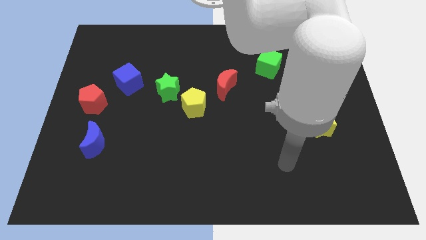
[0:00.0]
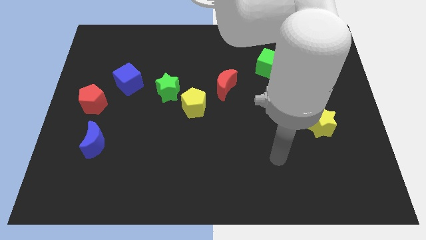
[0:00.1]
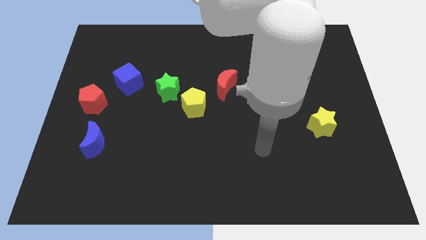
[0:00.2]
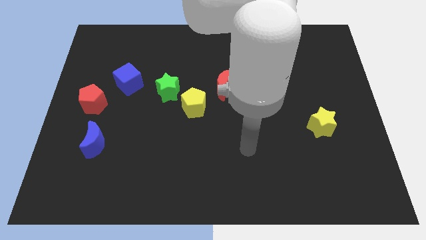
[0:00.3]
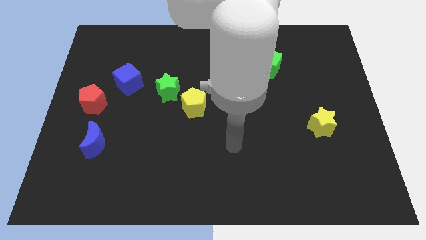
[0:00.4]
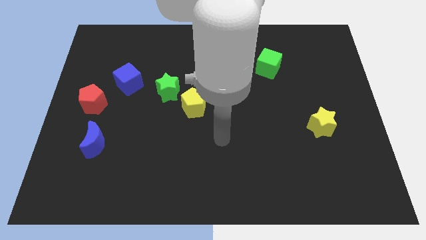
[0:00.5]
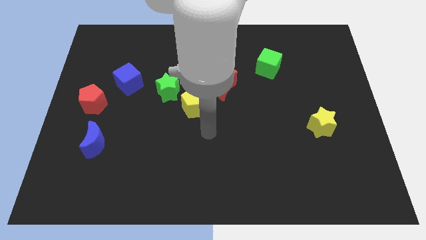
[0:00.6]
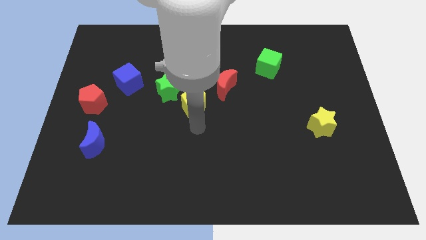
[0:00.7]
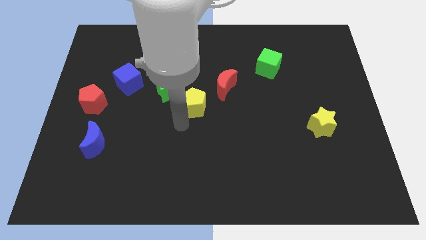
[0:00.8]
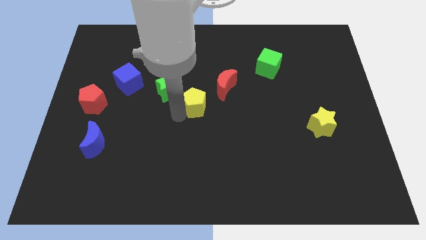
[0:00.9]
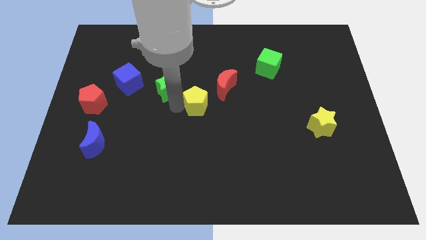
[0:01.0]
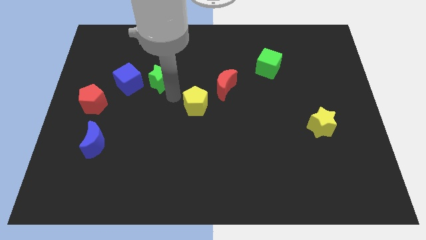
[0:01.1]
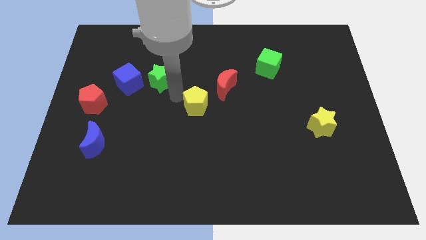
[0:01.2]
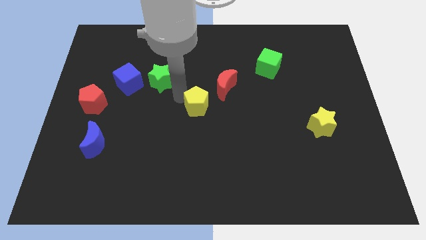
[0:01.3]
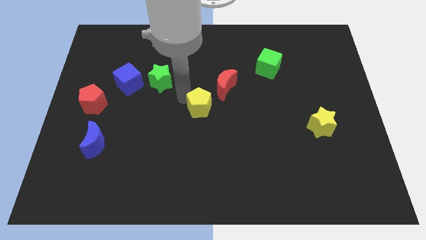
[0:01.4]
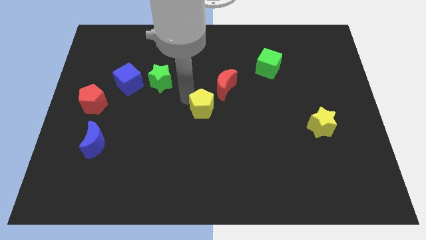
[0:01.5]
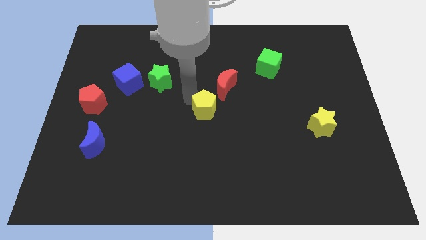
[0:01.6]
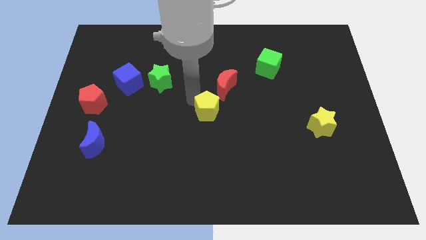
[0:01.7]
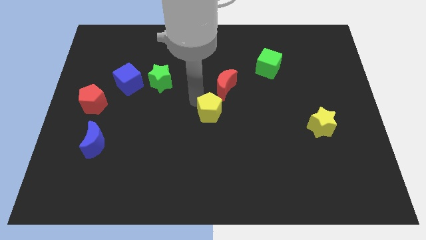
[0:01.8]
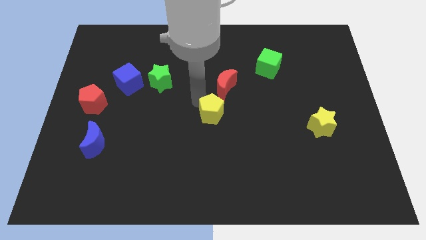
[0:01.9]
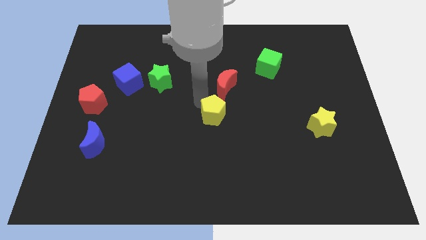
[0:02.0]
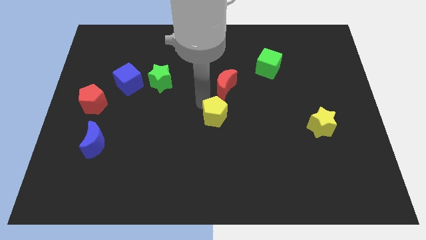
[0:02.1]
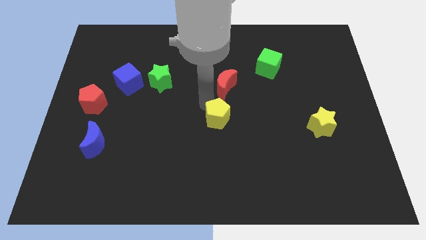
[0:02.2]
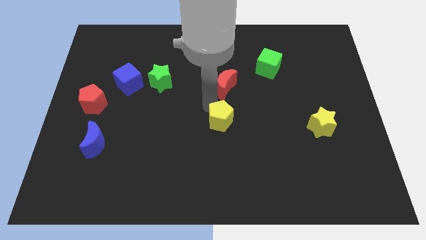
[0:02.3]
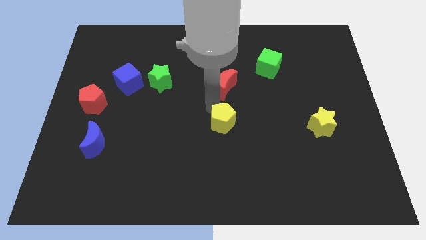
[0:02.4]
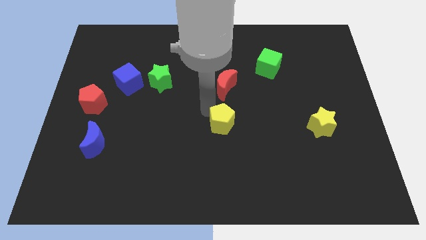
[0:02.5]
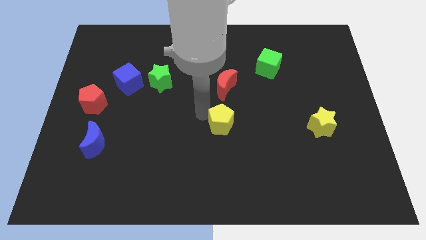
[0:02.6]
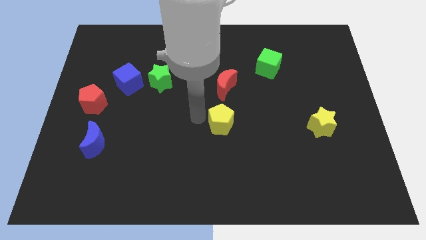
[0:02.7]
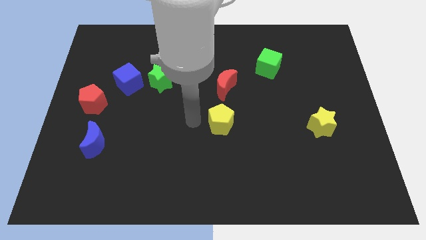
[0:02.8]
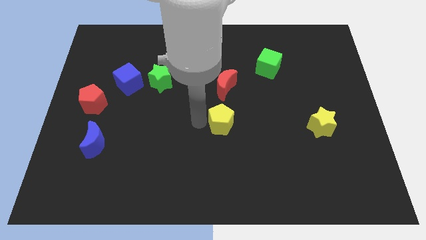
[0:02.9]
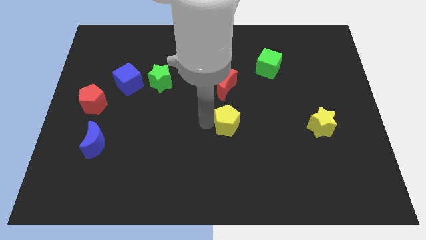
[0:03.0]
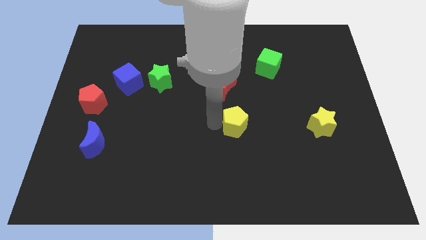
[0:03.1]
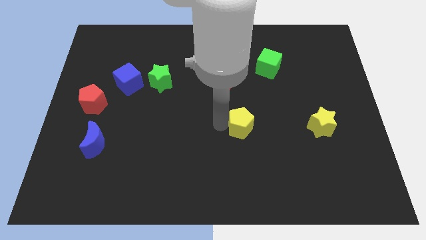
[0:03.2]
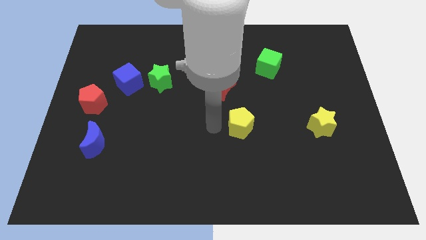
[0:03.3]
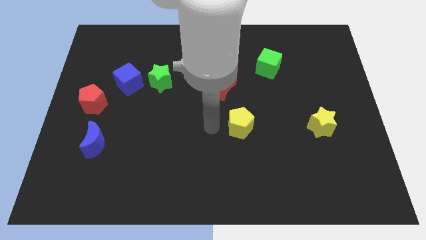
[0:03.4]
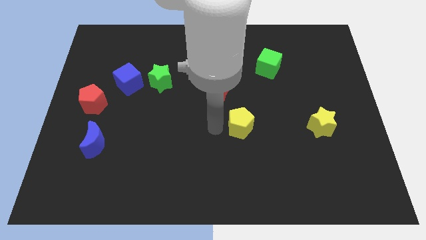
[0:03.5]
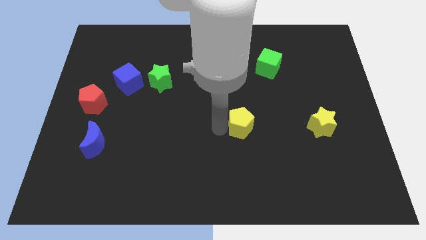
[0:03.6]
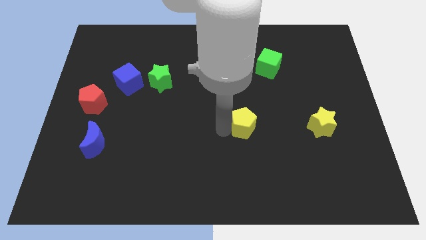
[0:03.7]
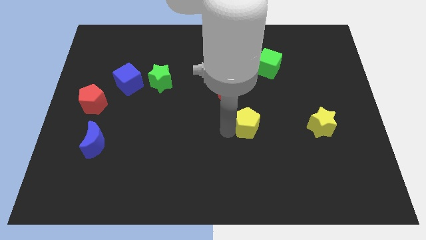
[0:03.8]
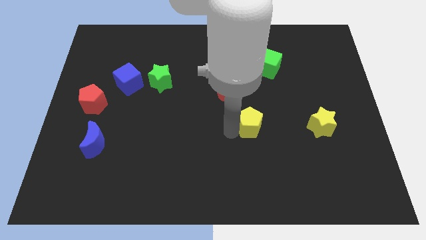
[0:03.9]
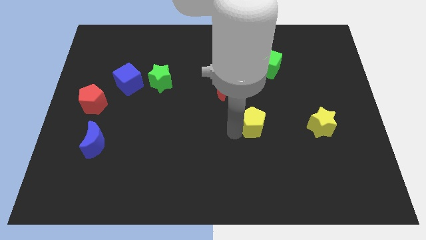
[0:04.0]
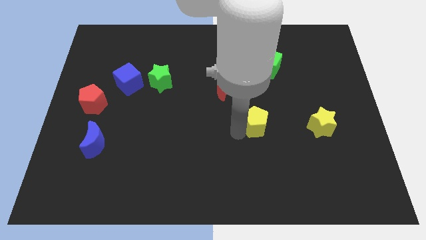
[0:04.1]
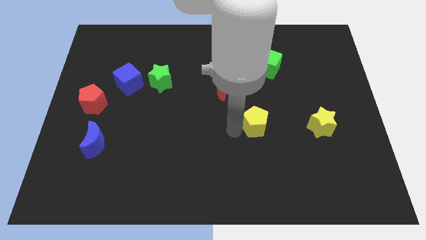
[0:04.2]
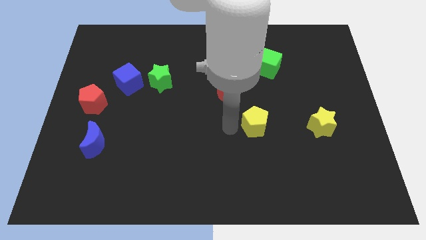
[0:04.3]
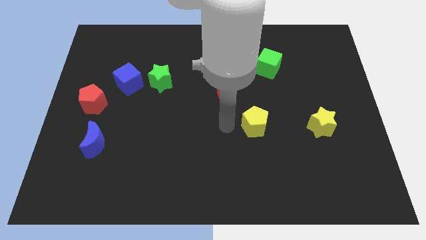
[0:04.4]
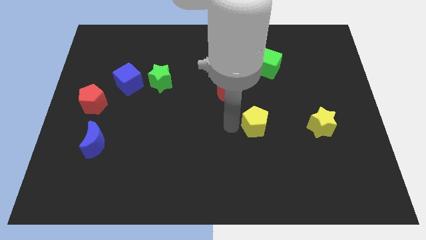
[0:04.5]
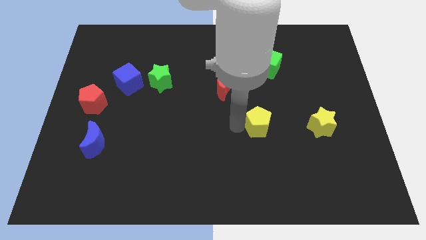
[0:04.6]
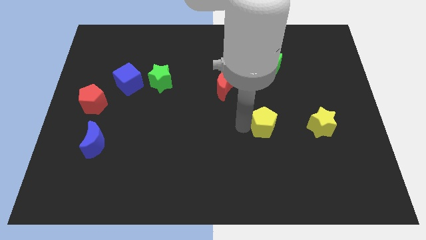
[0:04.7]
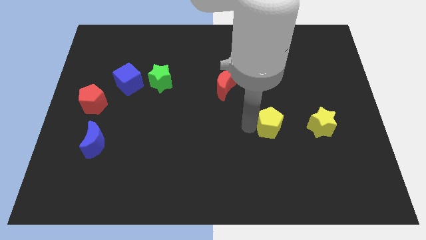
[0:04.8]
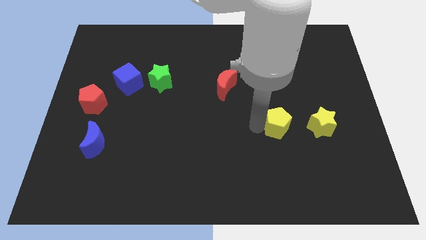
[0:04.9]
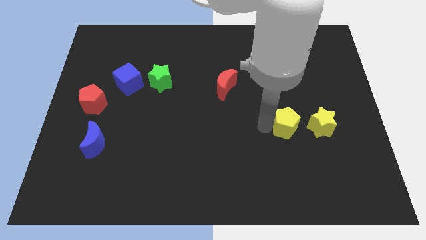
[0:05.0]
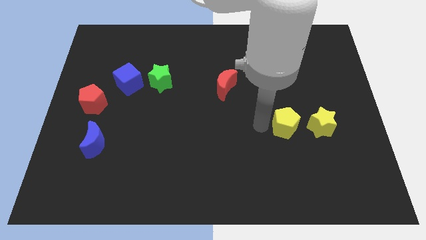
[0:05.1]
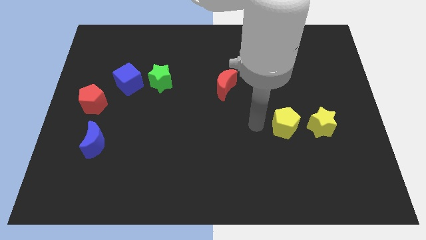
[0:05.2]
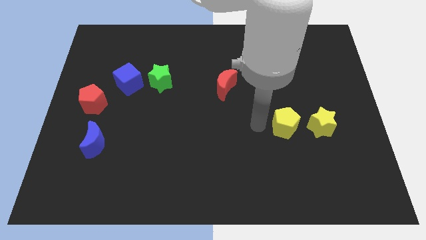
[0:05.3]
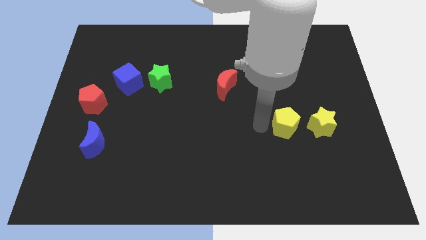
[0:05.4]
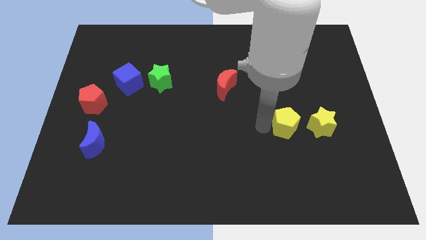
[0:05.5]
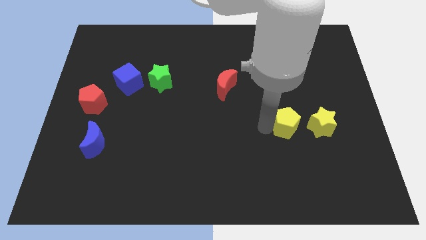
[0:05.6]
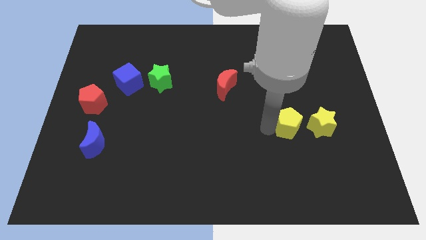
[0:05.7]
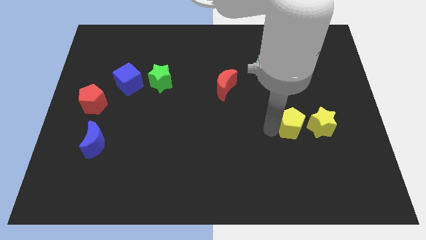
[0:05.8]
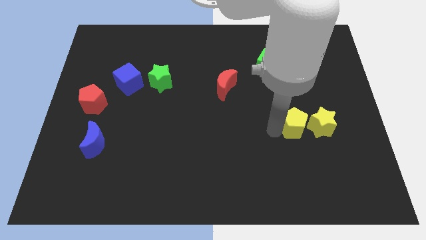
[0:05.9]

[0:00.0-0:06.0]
put the yellow pentagon next to the yellow star

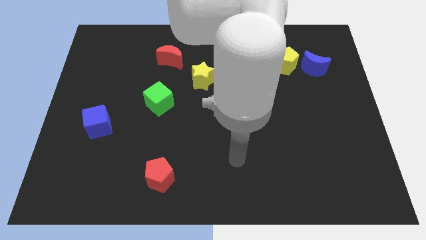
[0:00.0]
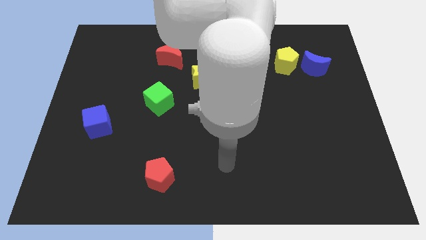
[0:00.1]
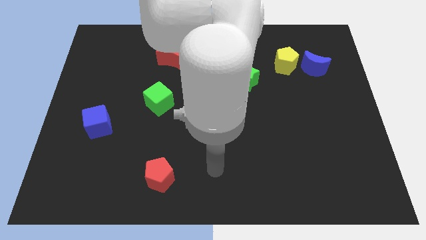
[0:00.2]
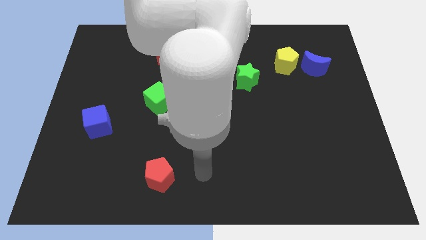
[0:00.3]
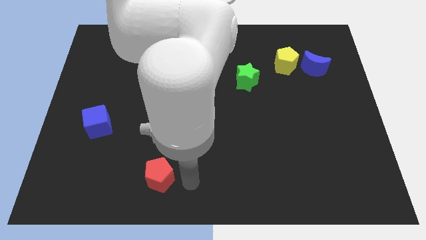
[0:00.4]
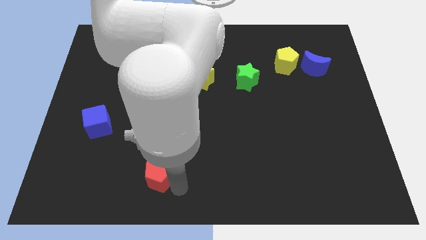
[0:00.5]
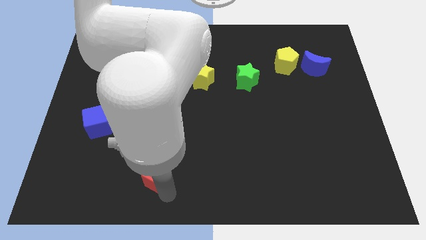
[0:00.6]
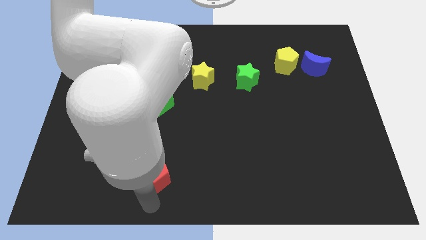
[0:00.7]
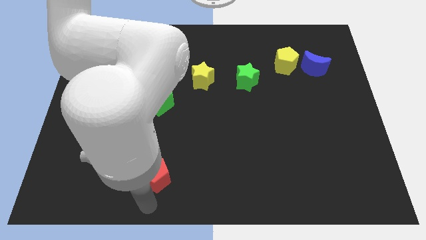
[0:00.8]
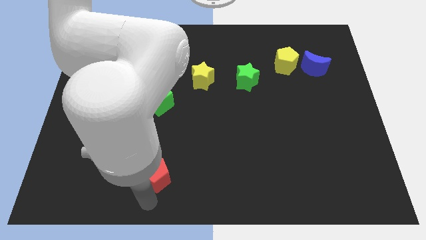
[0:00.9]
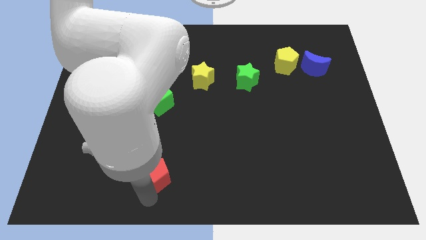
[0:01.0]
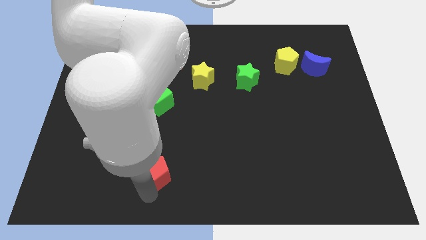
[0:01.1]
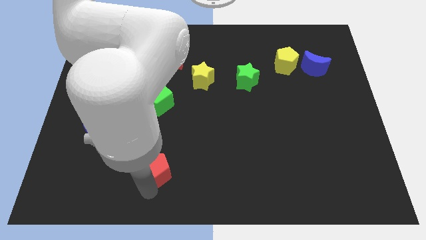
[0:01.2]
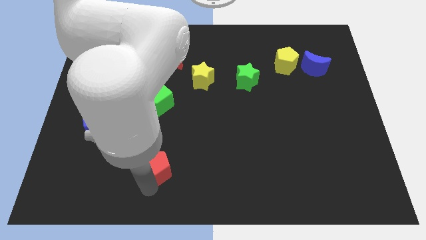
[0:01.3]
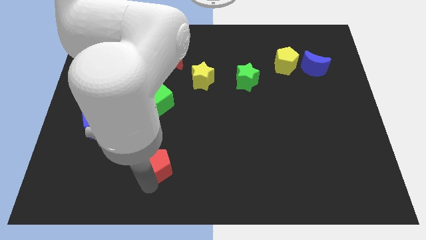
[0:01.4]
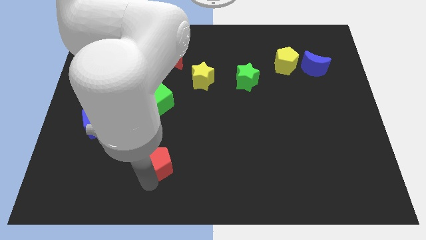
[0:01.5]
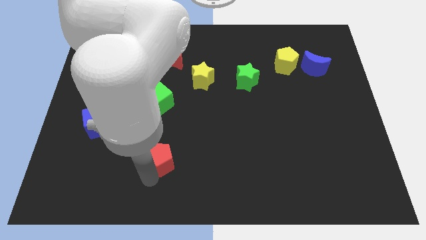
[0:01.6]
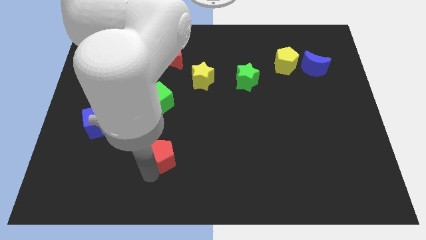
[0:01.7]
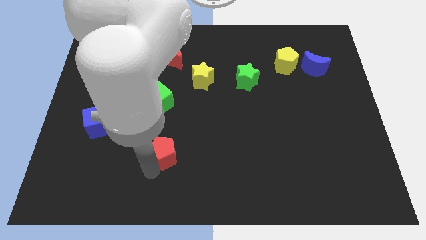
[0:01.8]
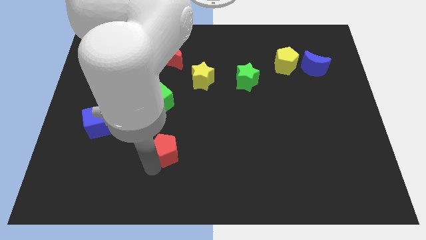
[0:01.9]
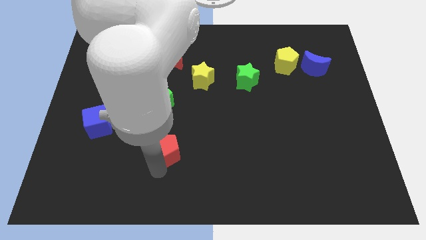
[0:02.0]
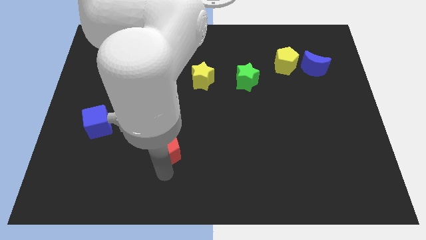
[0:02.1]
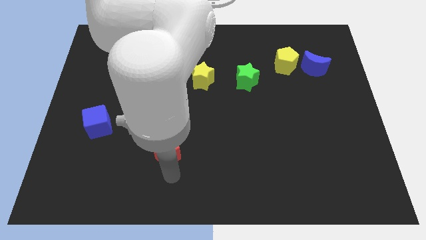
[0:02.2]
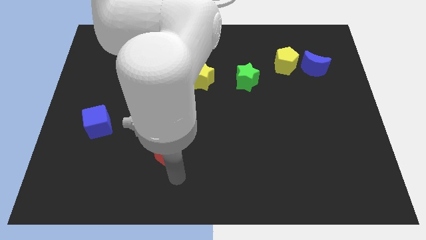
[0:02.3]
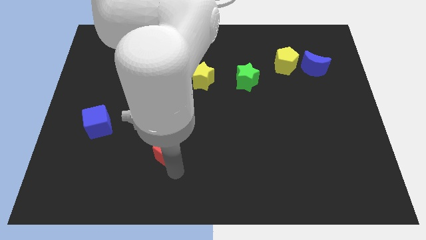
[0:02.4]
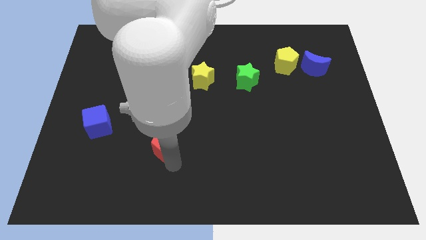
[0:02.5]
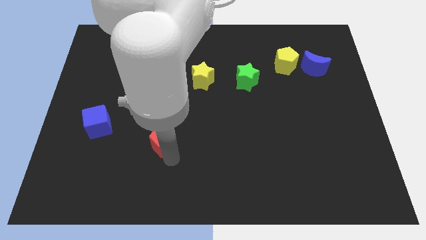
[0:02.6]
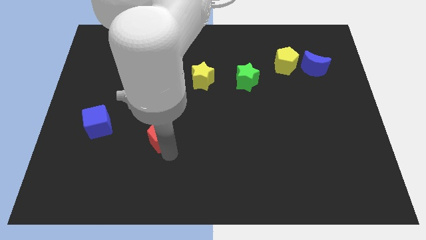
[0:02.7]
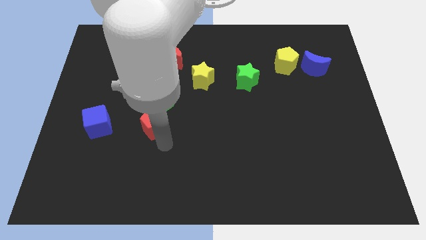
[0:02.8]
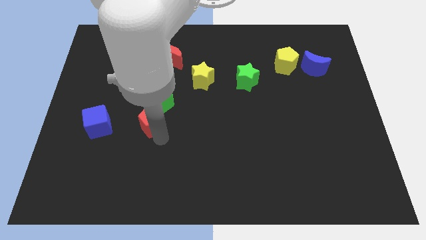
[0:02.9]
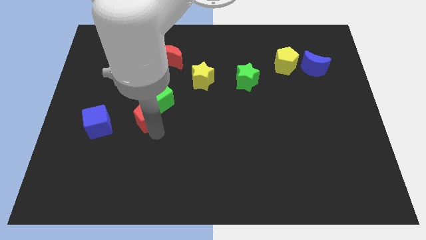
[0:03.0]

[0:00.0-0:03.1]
push the red pentagon towards the green cube
